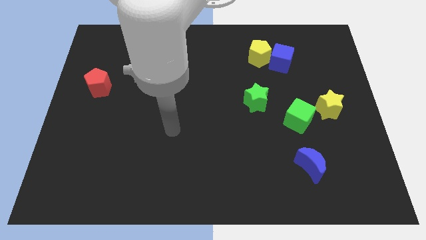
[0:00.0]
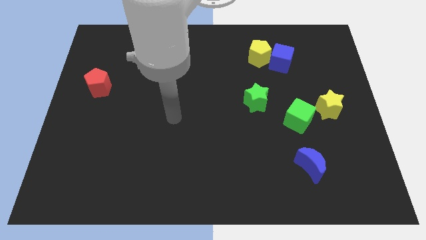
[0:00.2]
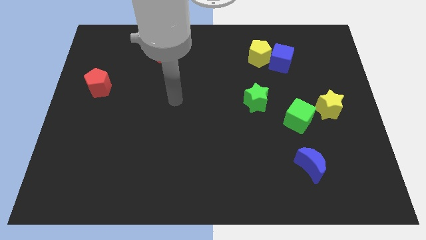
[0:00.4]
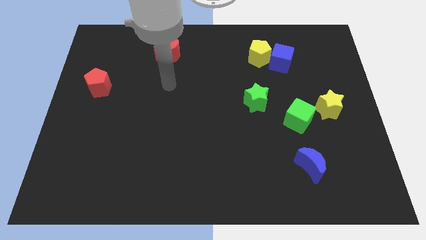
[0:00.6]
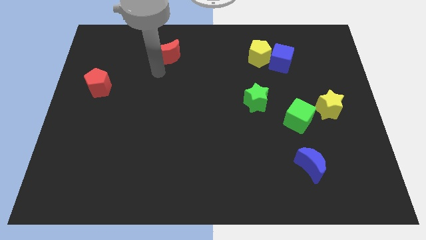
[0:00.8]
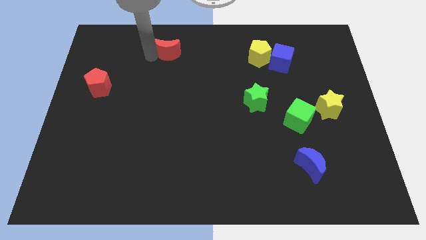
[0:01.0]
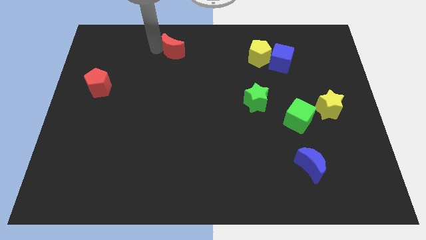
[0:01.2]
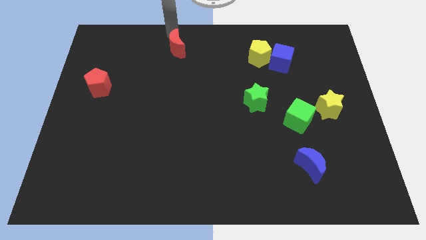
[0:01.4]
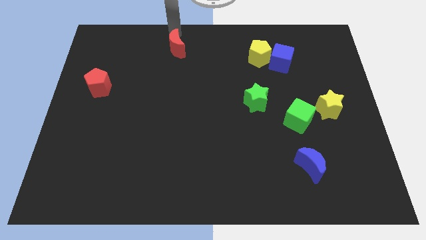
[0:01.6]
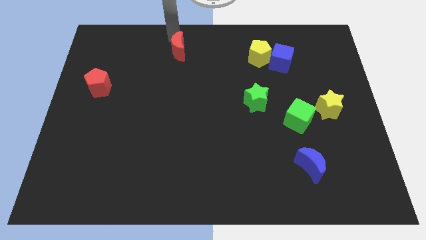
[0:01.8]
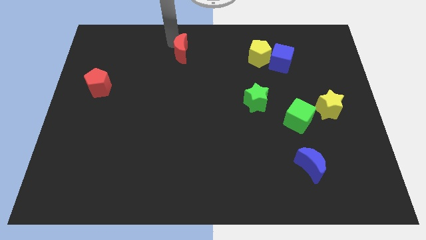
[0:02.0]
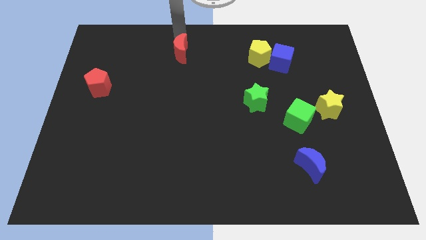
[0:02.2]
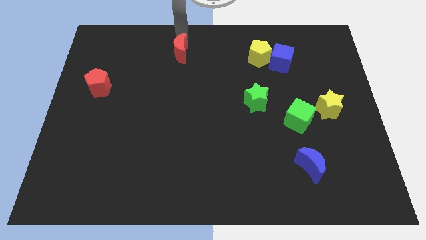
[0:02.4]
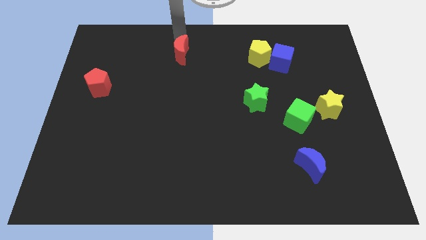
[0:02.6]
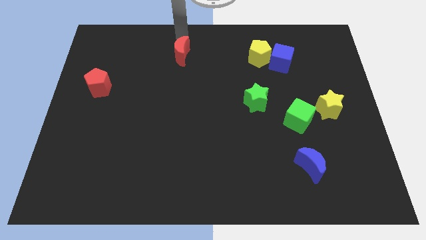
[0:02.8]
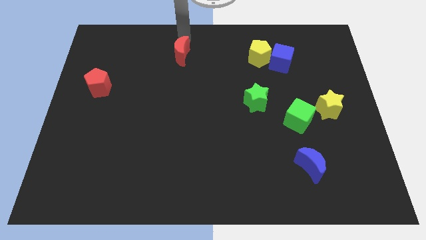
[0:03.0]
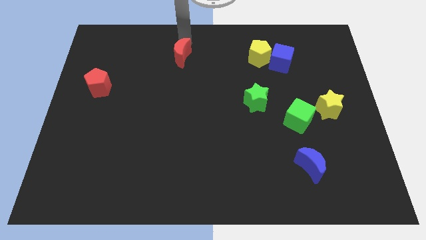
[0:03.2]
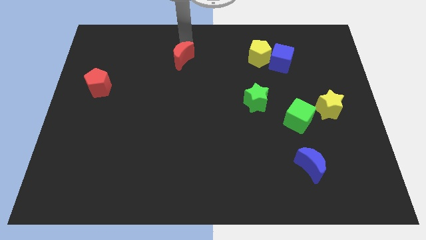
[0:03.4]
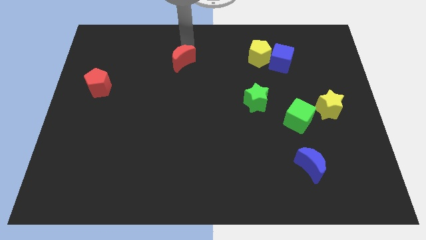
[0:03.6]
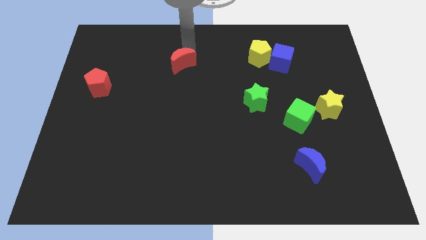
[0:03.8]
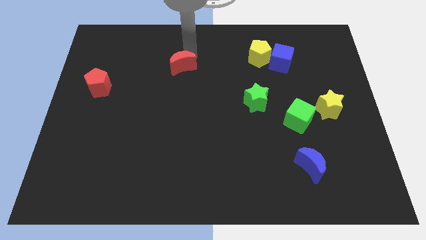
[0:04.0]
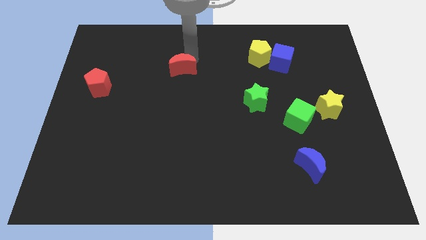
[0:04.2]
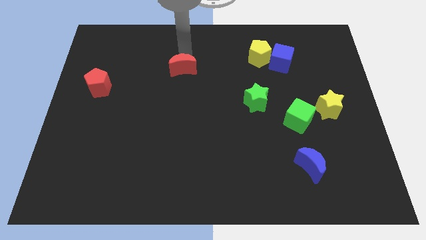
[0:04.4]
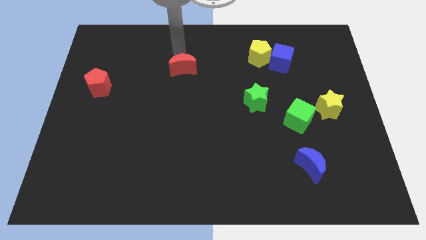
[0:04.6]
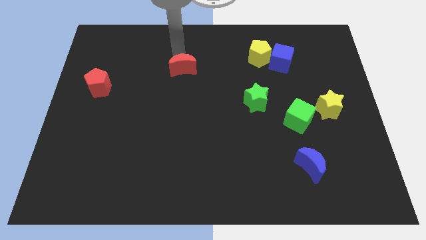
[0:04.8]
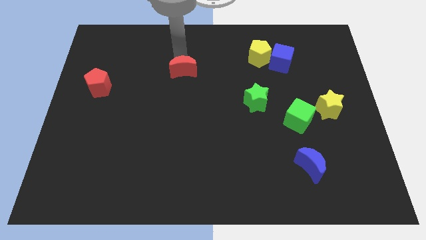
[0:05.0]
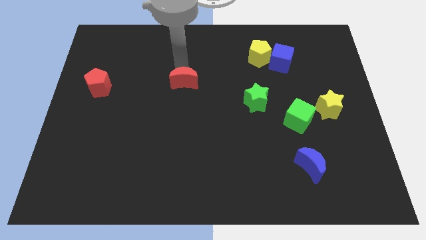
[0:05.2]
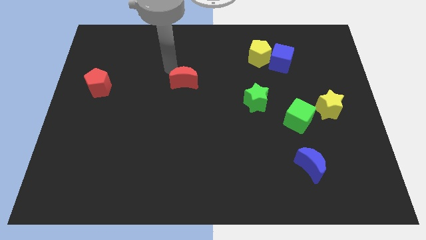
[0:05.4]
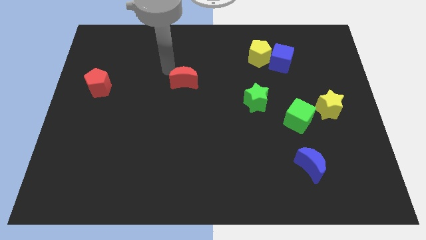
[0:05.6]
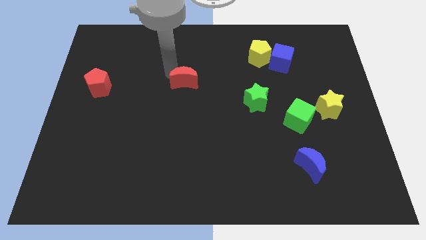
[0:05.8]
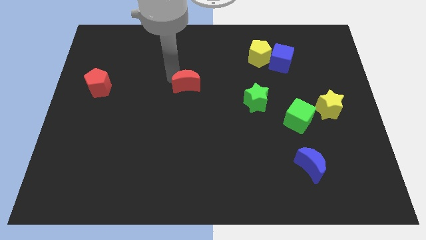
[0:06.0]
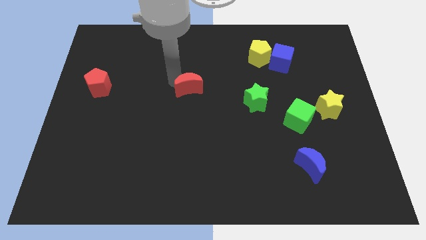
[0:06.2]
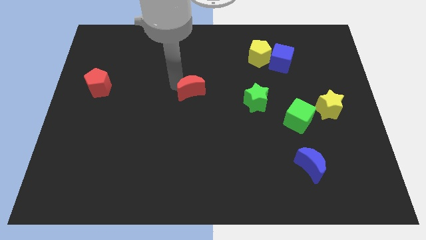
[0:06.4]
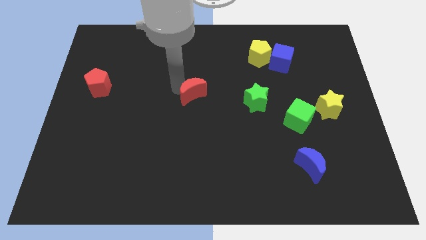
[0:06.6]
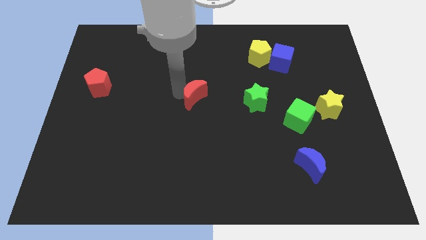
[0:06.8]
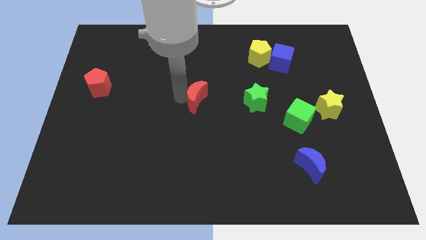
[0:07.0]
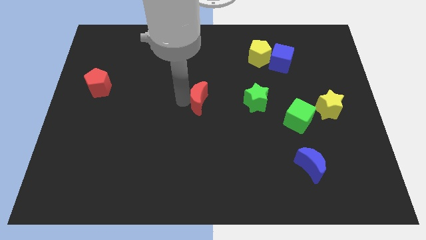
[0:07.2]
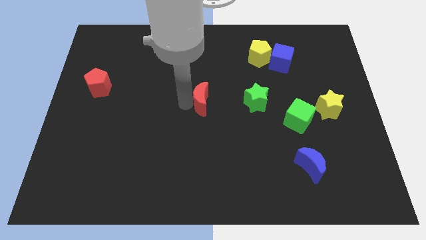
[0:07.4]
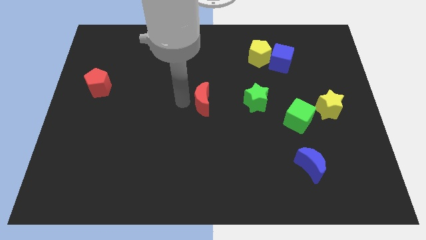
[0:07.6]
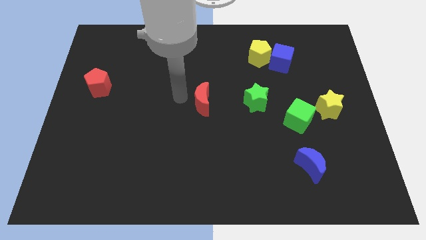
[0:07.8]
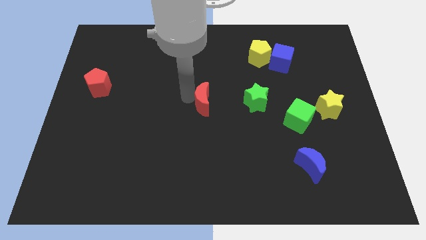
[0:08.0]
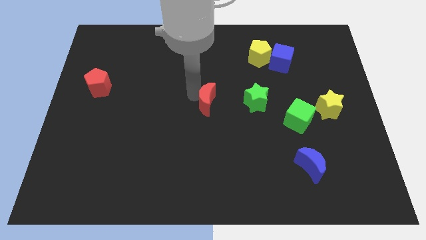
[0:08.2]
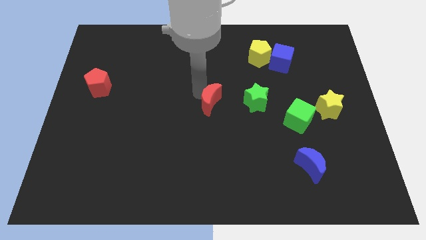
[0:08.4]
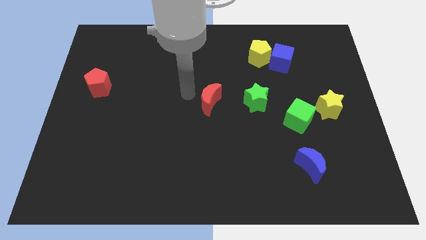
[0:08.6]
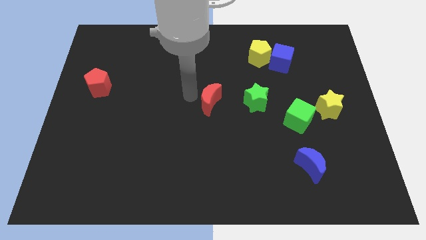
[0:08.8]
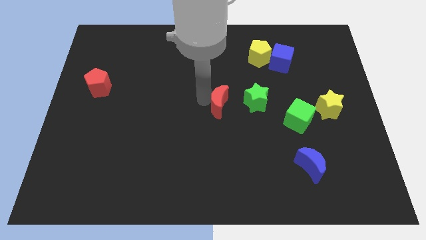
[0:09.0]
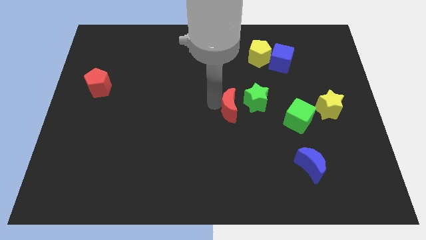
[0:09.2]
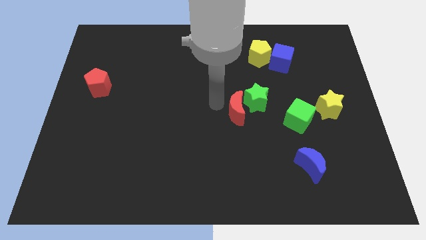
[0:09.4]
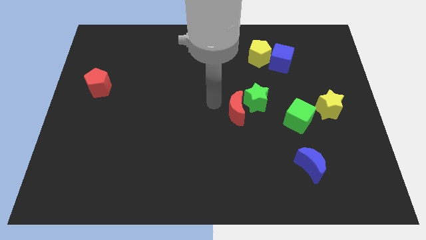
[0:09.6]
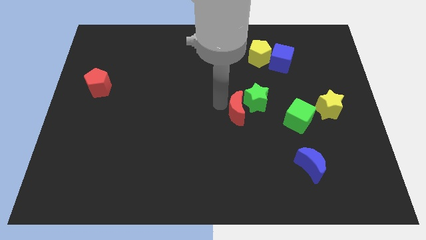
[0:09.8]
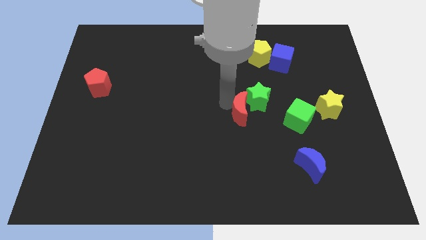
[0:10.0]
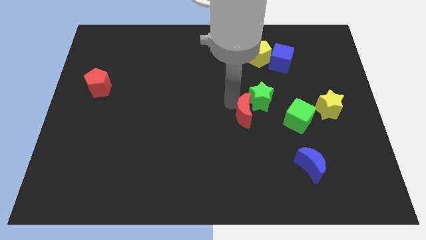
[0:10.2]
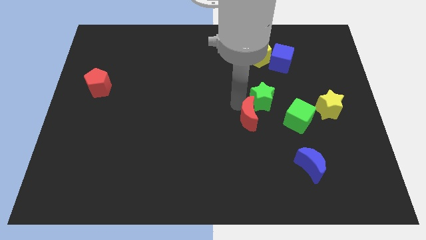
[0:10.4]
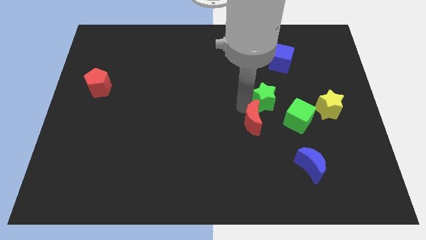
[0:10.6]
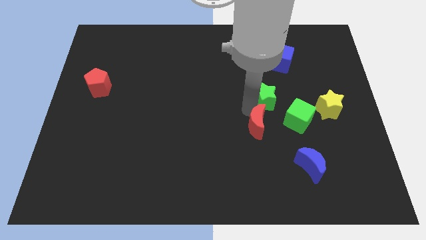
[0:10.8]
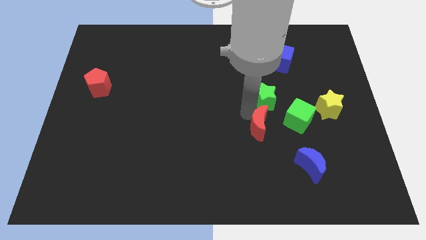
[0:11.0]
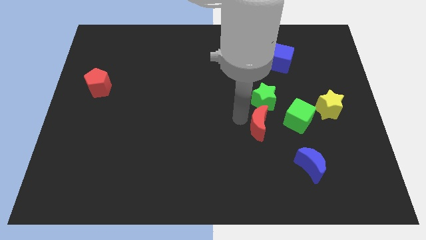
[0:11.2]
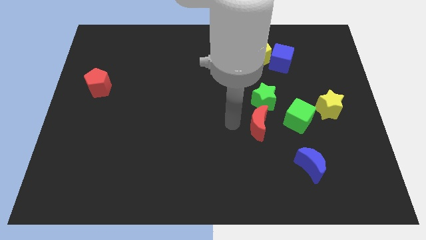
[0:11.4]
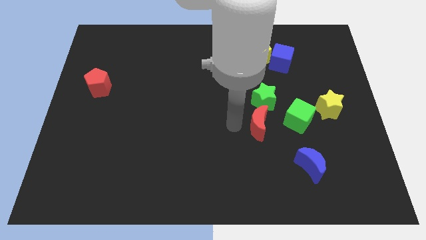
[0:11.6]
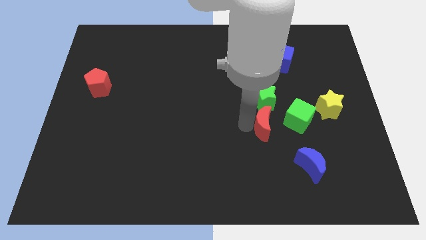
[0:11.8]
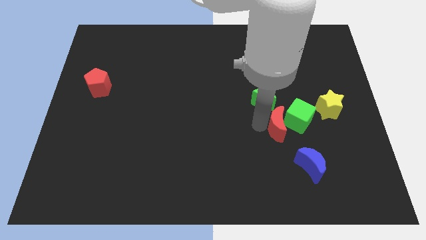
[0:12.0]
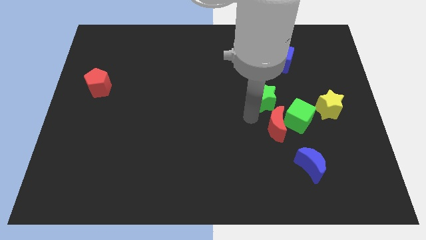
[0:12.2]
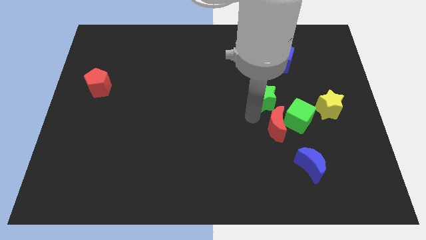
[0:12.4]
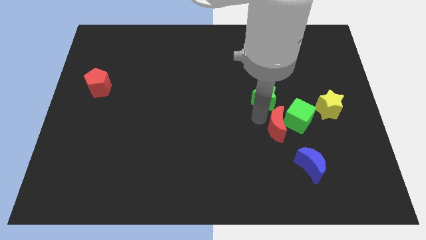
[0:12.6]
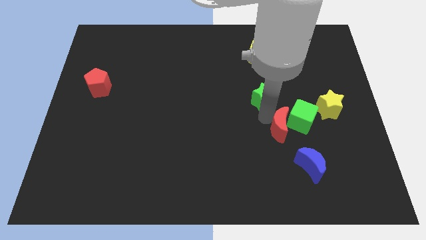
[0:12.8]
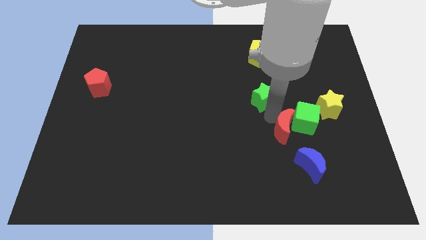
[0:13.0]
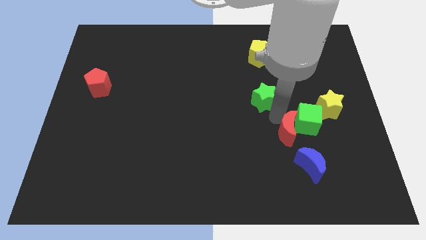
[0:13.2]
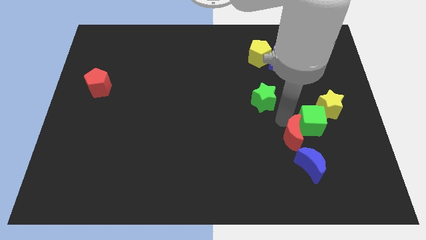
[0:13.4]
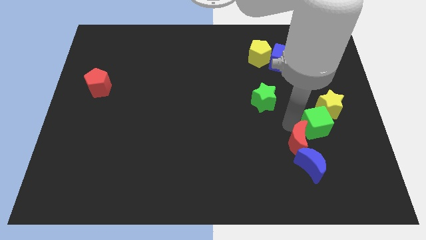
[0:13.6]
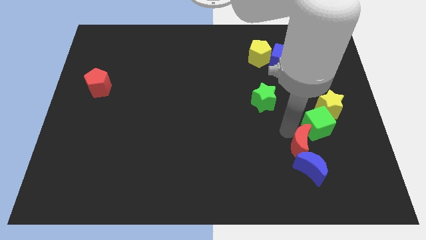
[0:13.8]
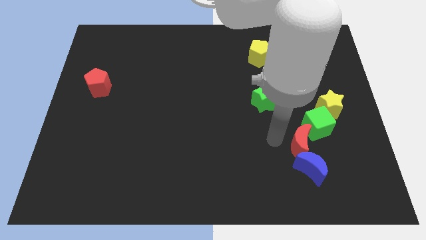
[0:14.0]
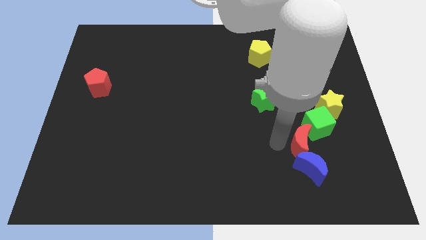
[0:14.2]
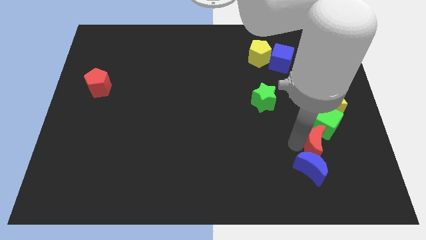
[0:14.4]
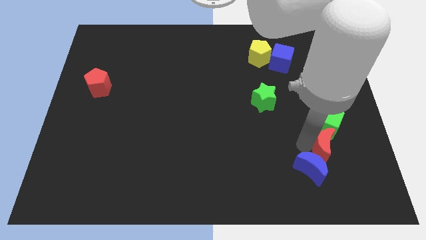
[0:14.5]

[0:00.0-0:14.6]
move the red moon to the bottom side of the yellow star
